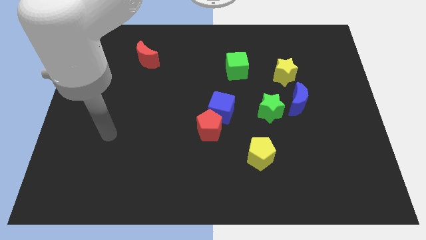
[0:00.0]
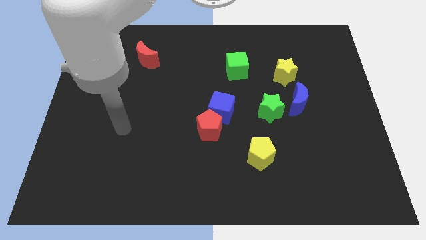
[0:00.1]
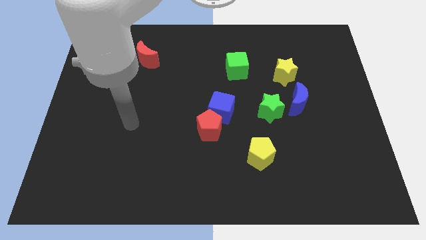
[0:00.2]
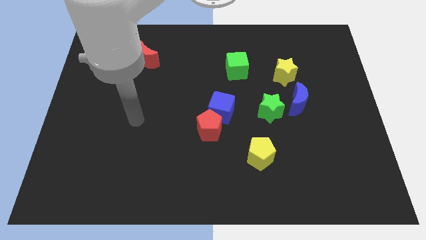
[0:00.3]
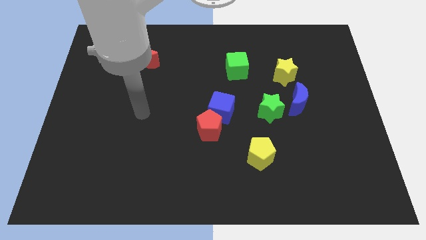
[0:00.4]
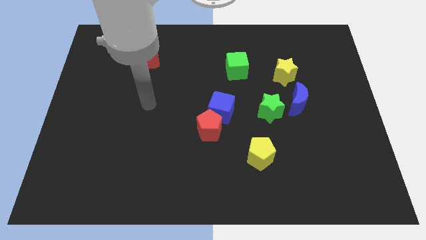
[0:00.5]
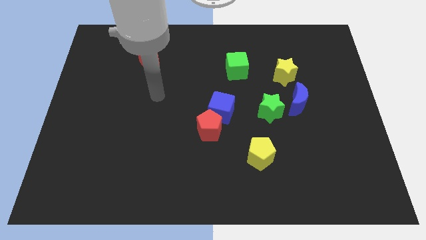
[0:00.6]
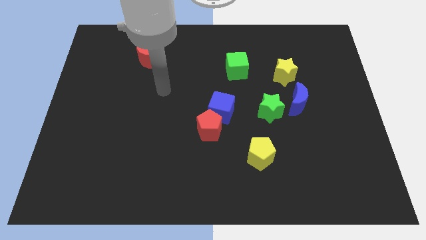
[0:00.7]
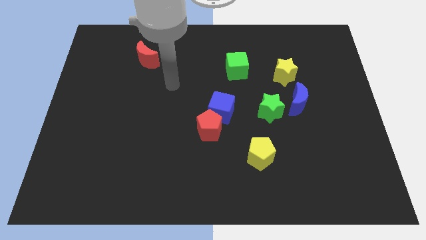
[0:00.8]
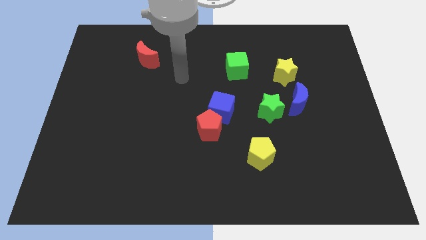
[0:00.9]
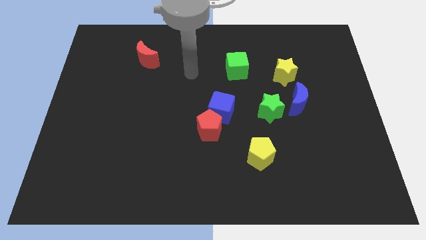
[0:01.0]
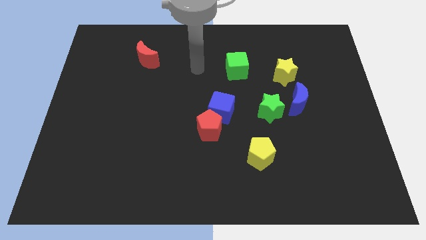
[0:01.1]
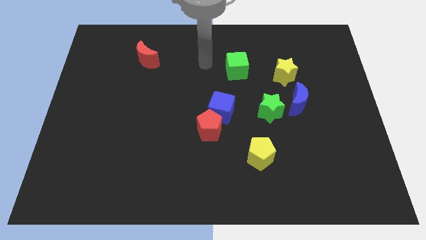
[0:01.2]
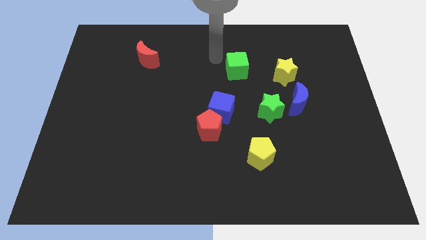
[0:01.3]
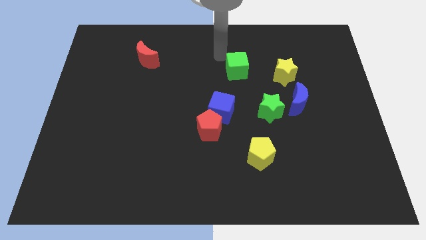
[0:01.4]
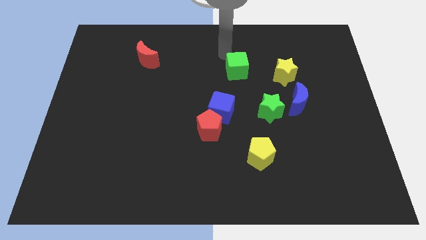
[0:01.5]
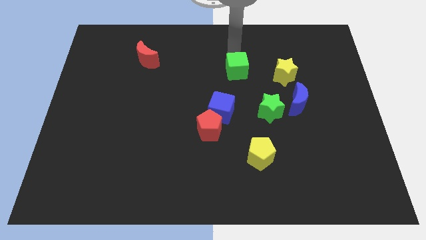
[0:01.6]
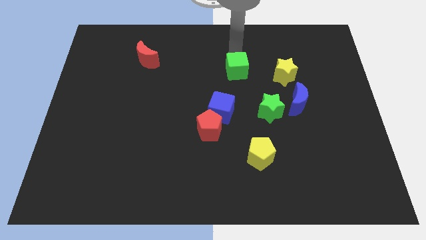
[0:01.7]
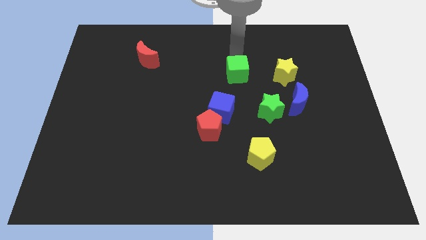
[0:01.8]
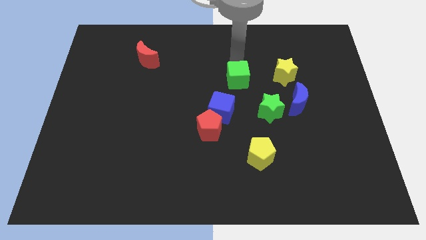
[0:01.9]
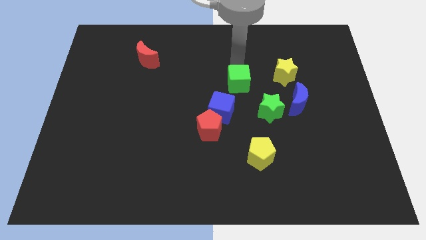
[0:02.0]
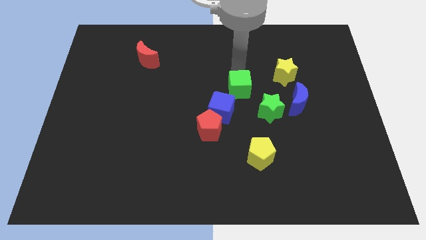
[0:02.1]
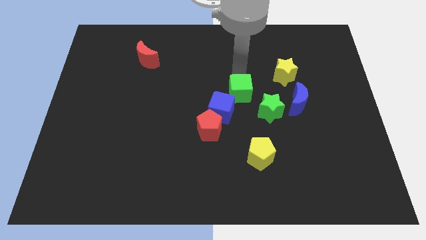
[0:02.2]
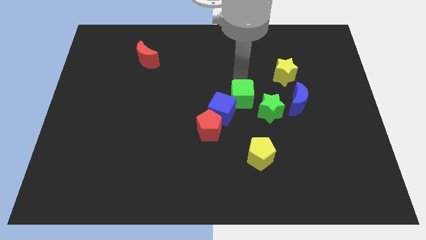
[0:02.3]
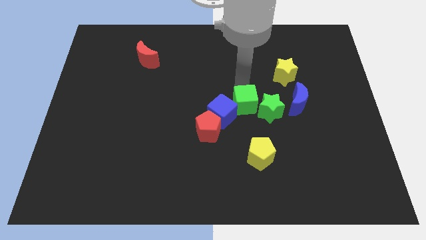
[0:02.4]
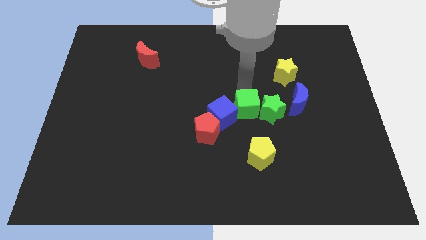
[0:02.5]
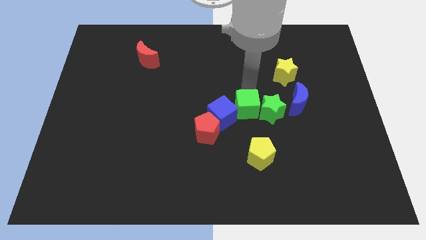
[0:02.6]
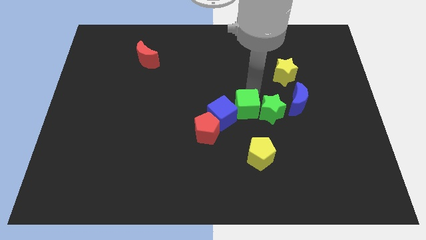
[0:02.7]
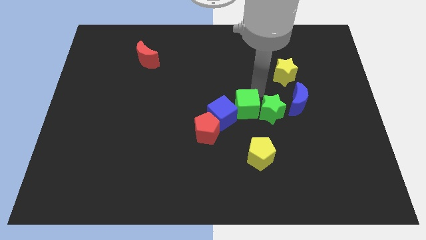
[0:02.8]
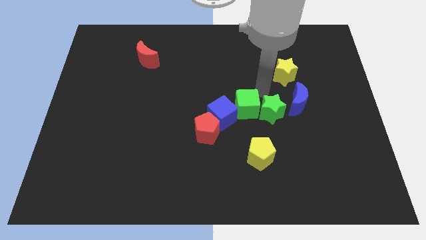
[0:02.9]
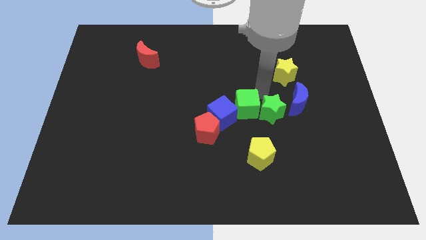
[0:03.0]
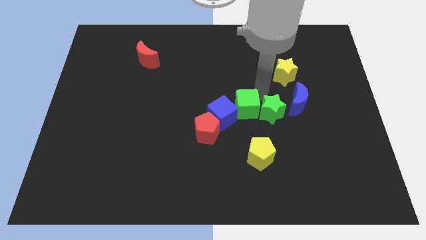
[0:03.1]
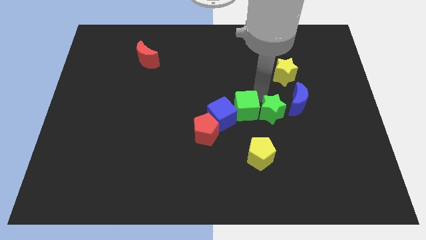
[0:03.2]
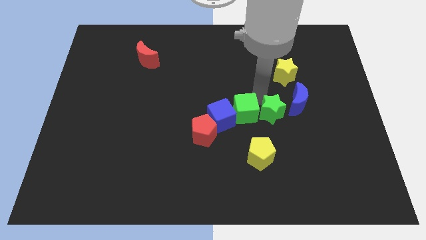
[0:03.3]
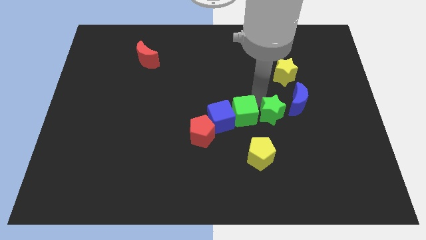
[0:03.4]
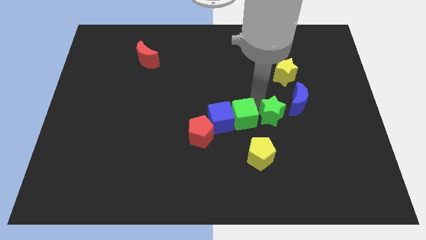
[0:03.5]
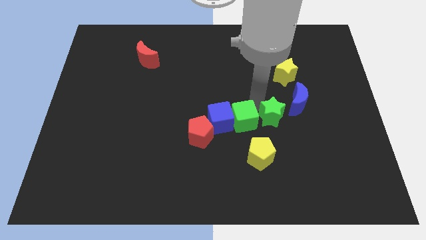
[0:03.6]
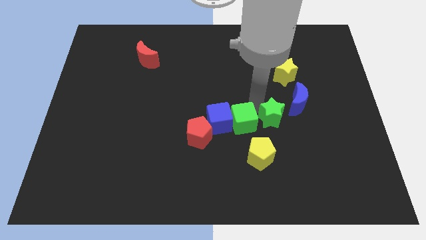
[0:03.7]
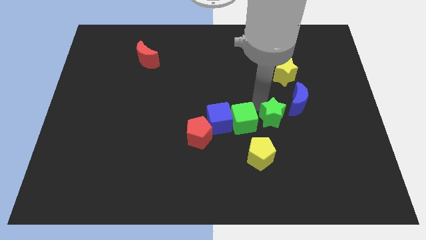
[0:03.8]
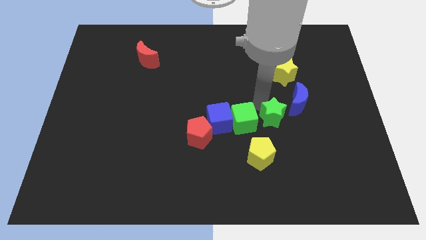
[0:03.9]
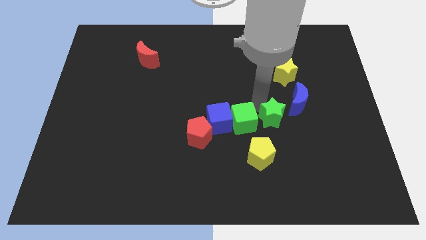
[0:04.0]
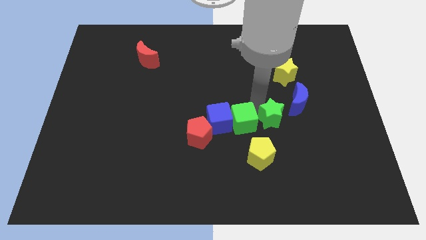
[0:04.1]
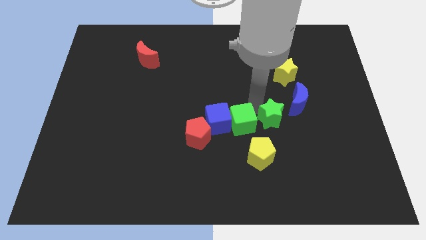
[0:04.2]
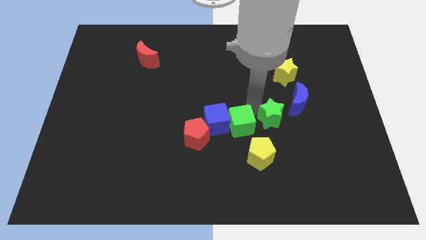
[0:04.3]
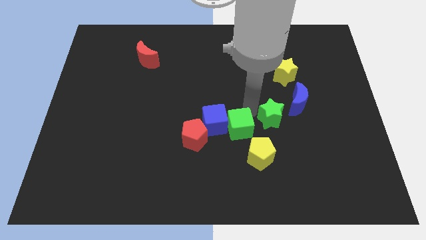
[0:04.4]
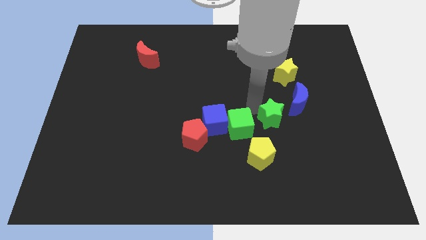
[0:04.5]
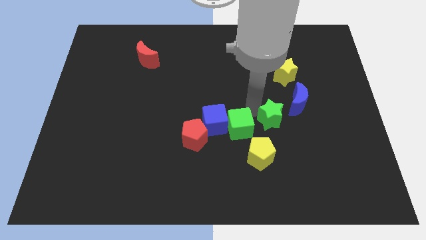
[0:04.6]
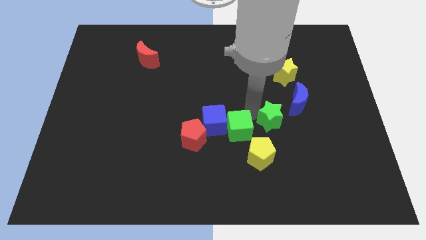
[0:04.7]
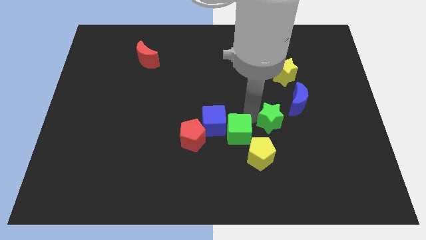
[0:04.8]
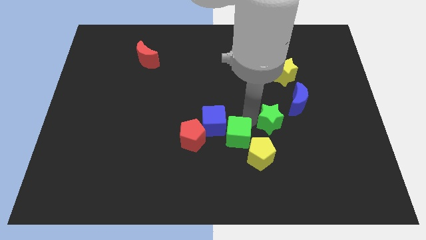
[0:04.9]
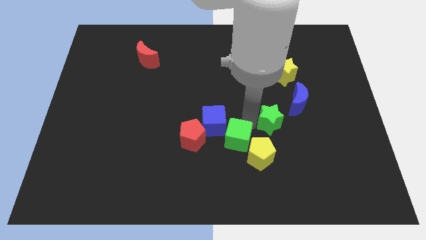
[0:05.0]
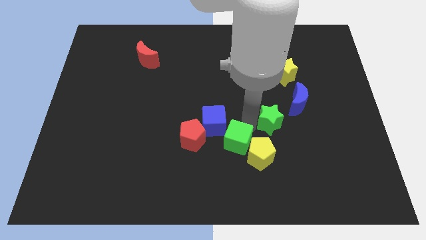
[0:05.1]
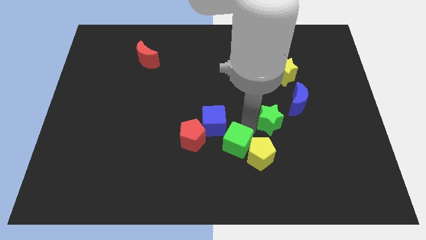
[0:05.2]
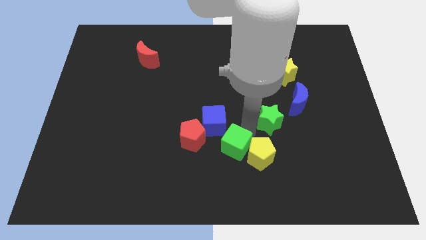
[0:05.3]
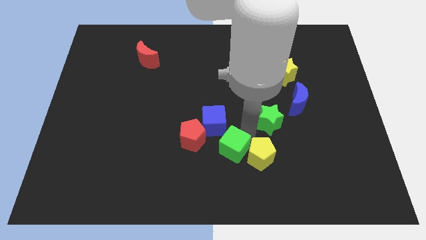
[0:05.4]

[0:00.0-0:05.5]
push the green cube diagonally down and to the right of the red pentagon

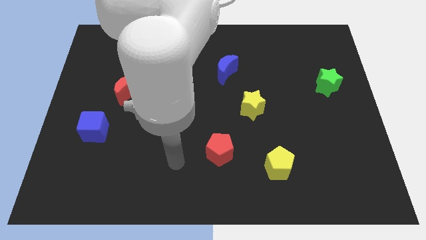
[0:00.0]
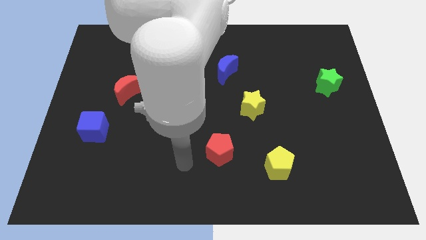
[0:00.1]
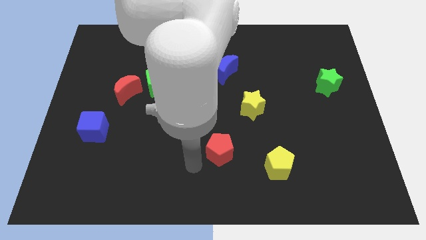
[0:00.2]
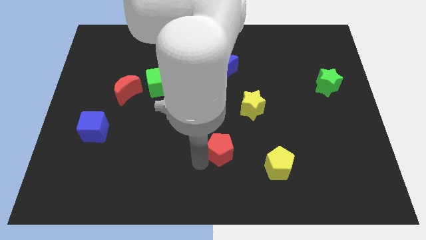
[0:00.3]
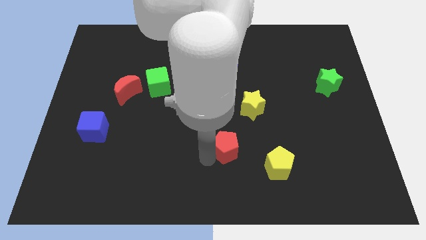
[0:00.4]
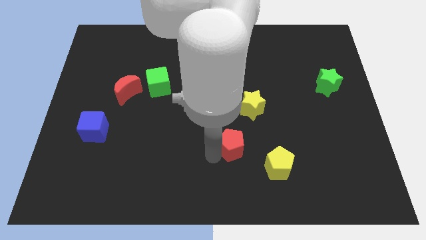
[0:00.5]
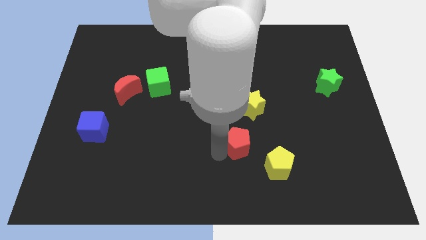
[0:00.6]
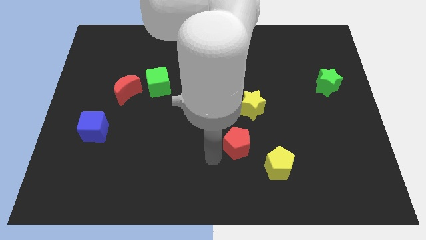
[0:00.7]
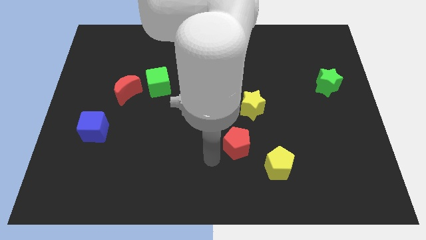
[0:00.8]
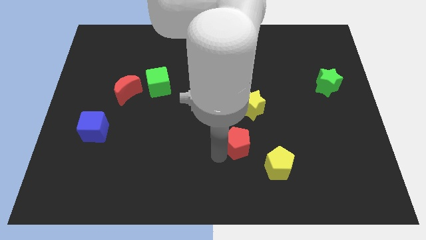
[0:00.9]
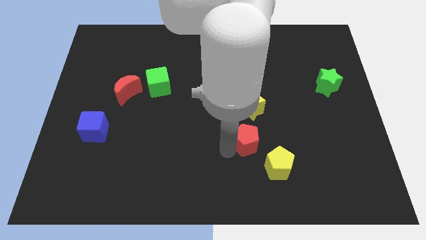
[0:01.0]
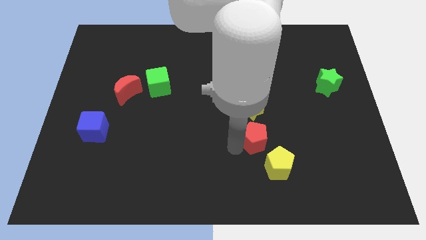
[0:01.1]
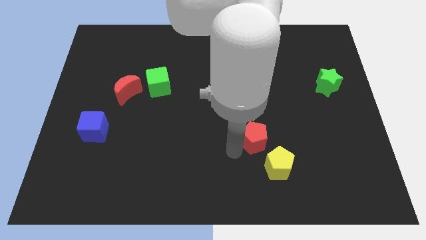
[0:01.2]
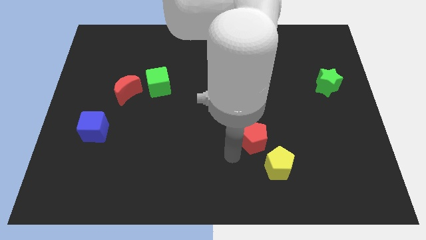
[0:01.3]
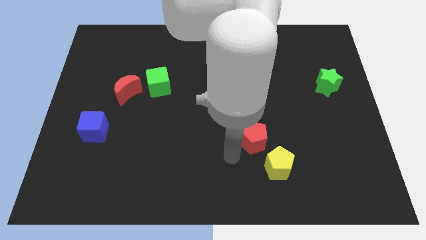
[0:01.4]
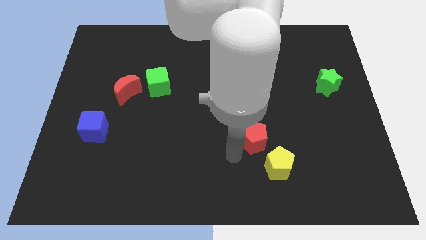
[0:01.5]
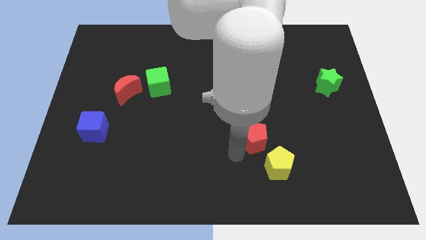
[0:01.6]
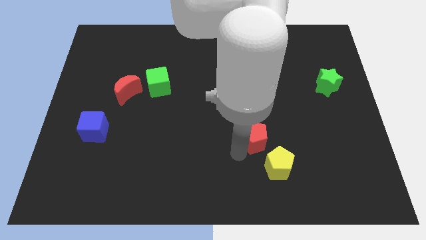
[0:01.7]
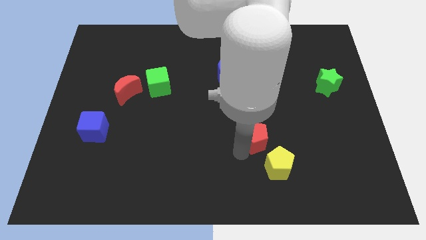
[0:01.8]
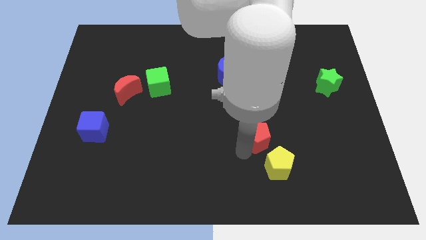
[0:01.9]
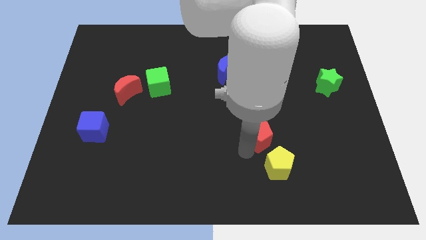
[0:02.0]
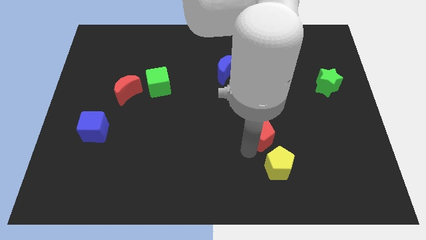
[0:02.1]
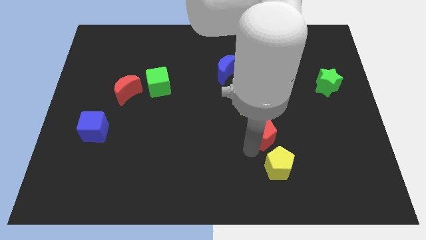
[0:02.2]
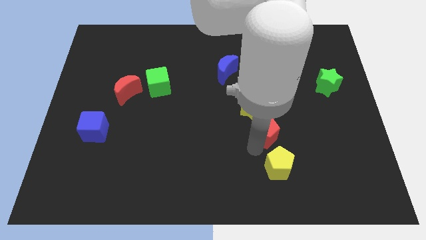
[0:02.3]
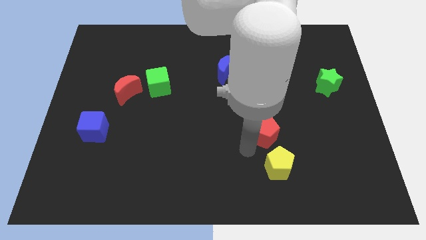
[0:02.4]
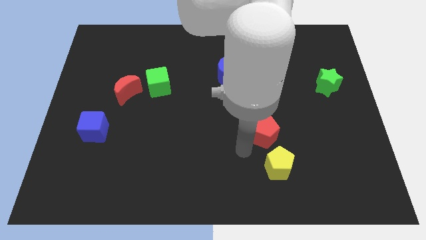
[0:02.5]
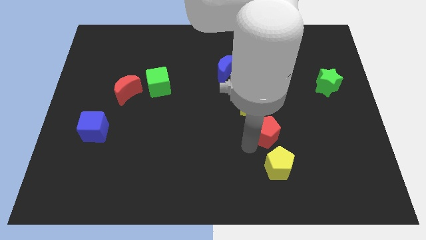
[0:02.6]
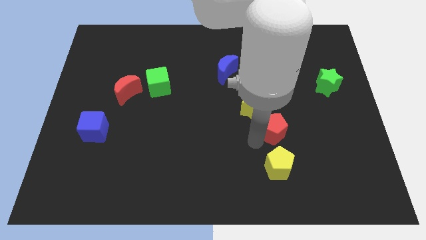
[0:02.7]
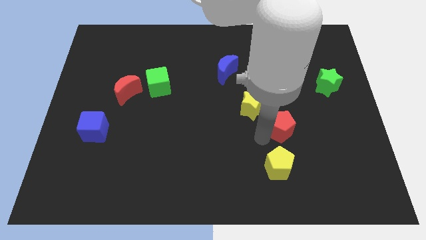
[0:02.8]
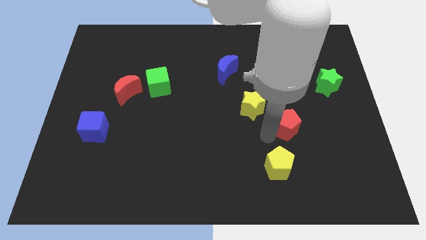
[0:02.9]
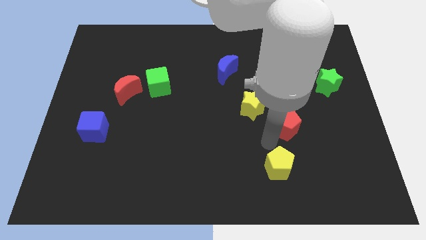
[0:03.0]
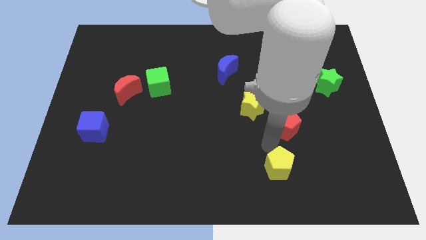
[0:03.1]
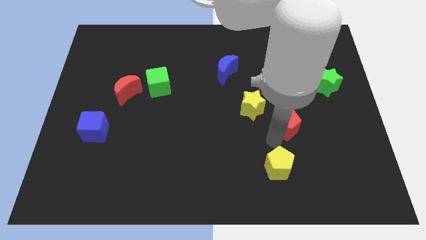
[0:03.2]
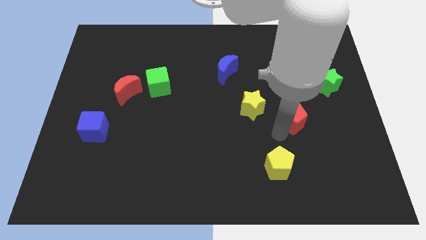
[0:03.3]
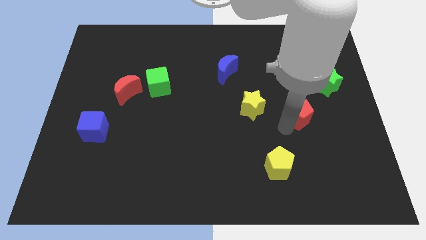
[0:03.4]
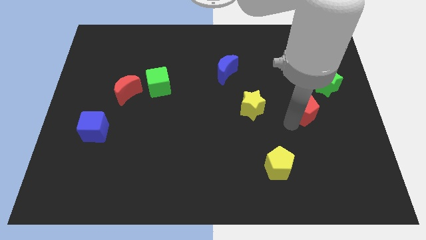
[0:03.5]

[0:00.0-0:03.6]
put the red pentagon diagonally down and to the left of the green star
